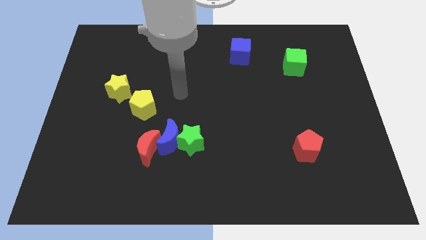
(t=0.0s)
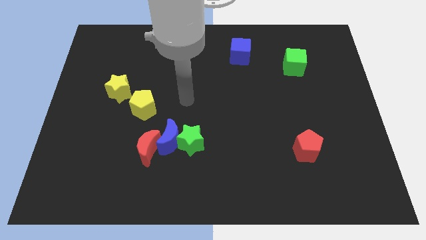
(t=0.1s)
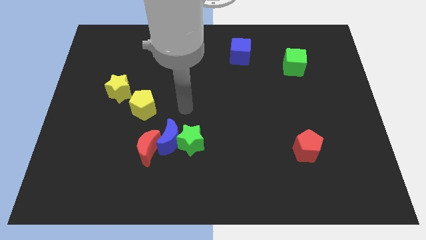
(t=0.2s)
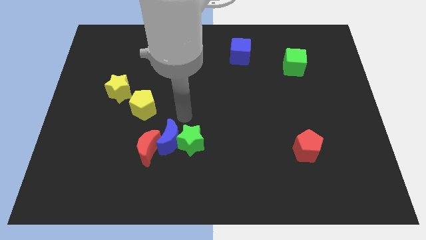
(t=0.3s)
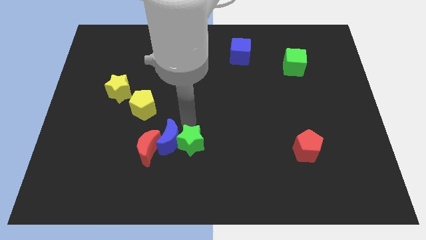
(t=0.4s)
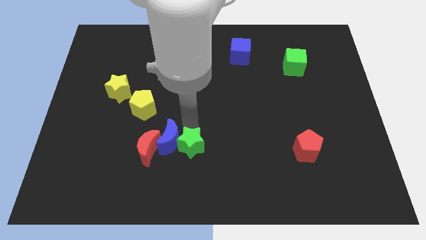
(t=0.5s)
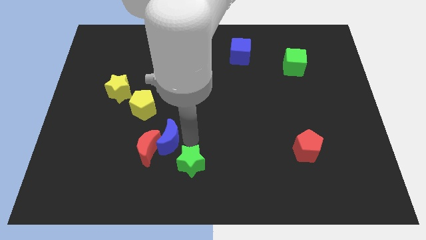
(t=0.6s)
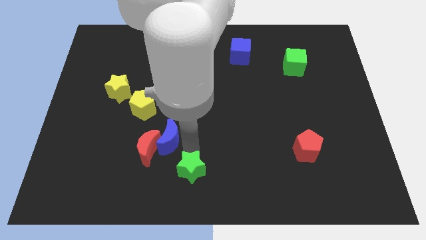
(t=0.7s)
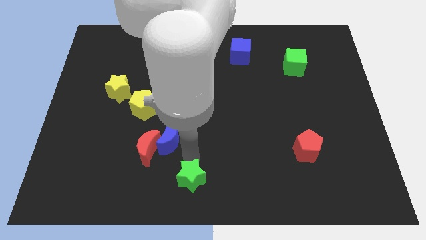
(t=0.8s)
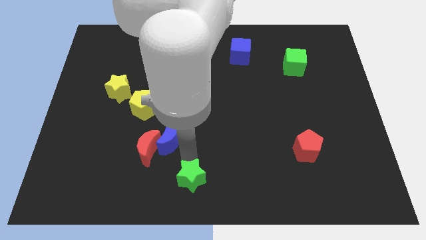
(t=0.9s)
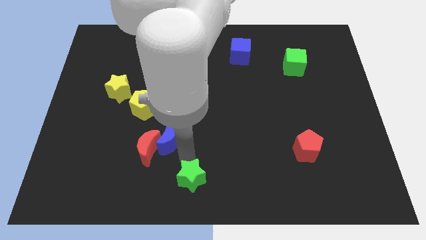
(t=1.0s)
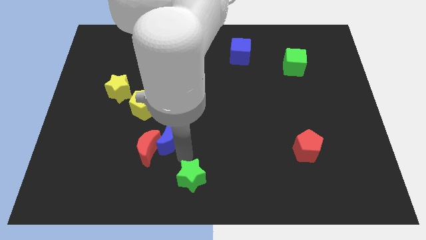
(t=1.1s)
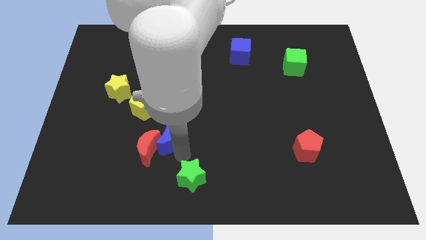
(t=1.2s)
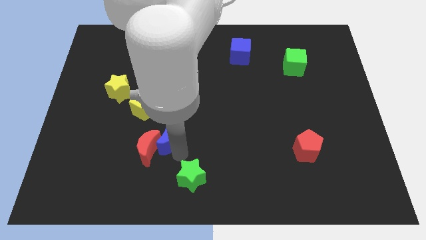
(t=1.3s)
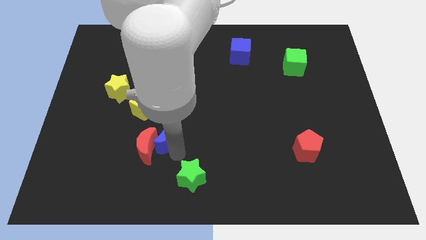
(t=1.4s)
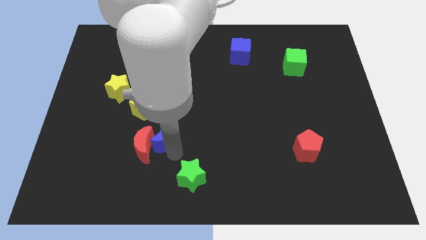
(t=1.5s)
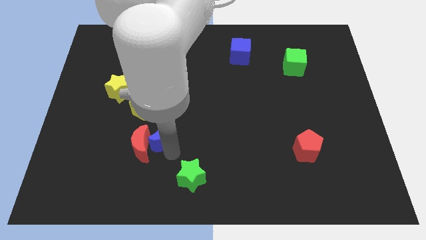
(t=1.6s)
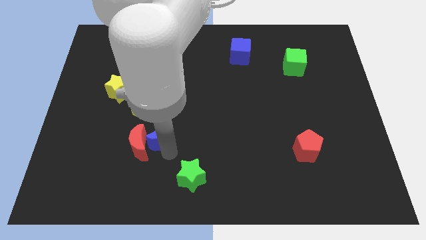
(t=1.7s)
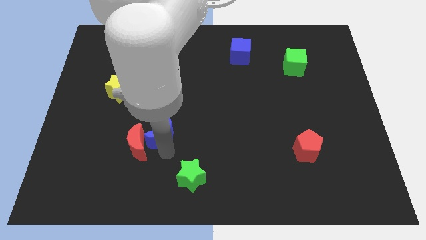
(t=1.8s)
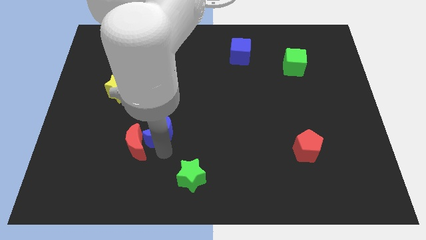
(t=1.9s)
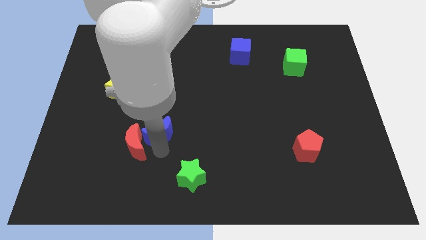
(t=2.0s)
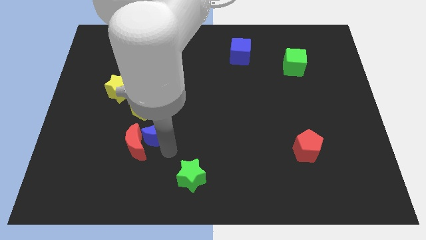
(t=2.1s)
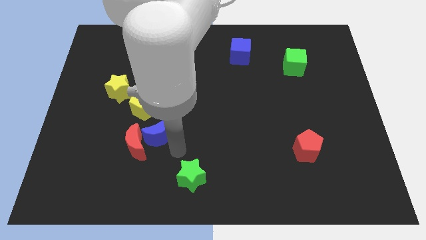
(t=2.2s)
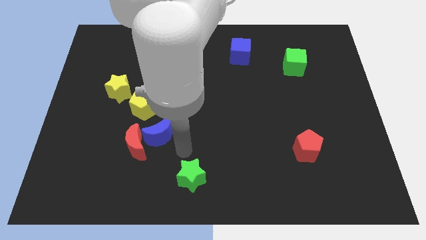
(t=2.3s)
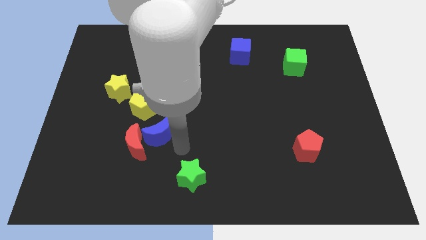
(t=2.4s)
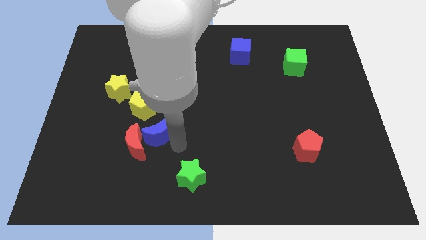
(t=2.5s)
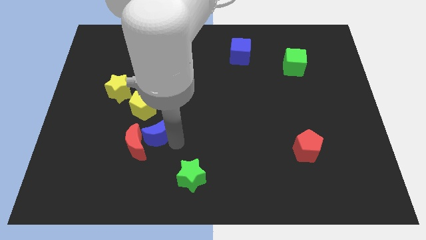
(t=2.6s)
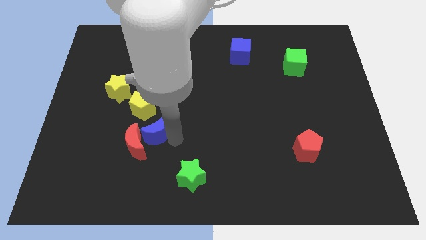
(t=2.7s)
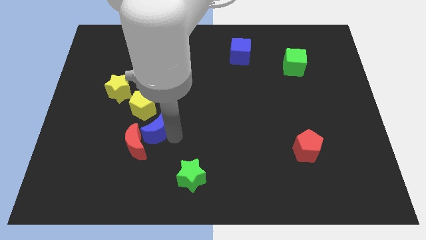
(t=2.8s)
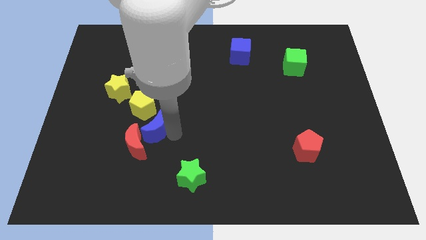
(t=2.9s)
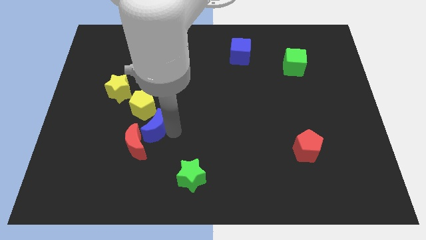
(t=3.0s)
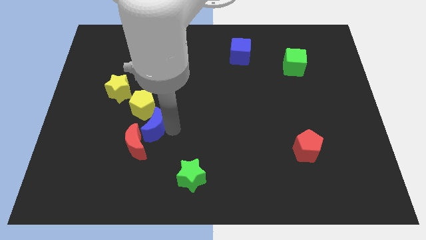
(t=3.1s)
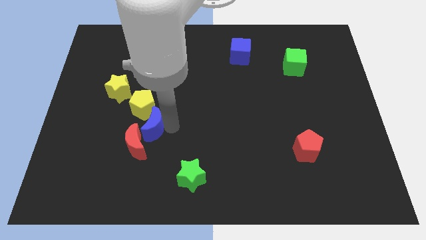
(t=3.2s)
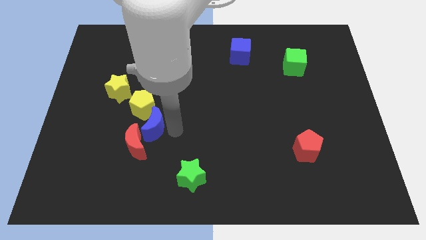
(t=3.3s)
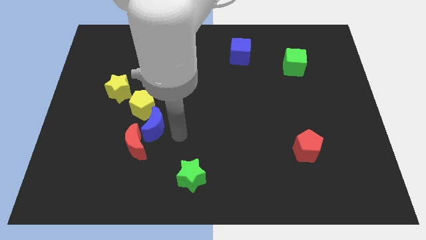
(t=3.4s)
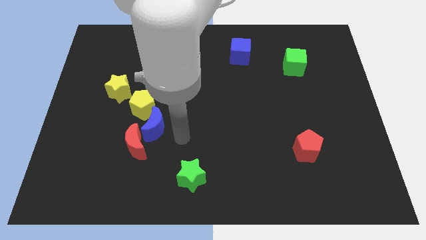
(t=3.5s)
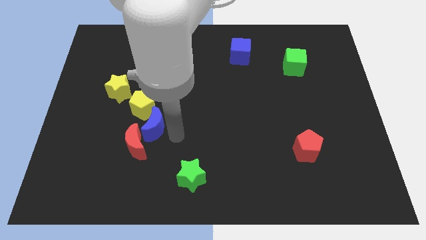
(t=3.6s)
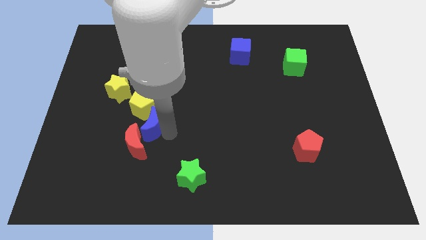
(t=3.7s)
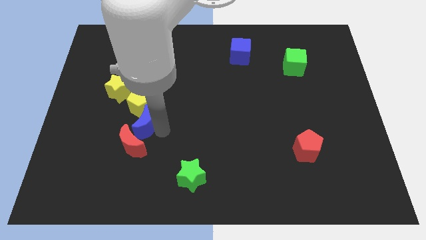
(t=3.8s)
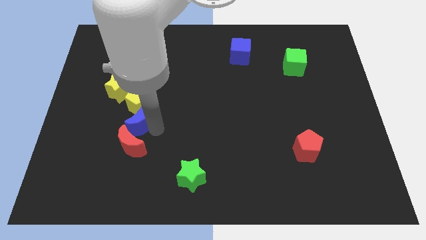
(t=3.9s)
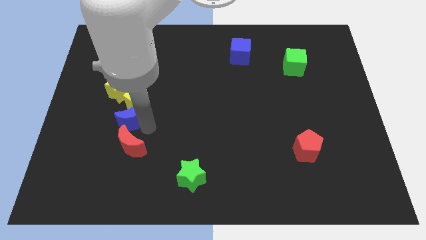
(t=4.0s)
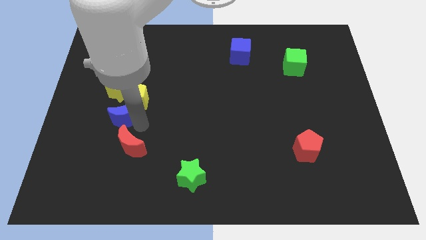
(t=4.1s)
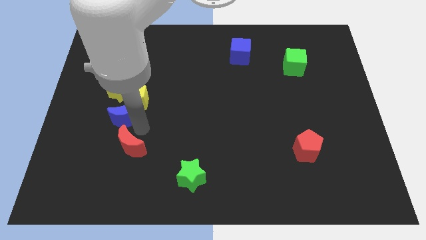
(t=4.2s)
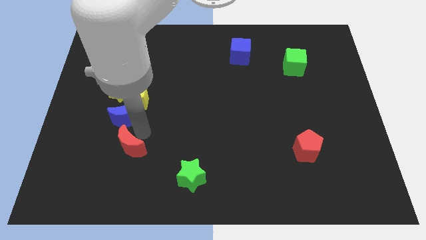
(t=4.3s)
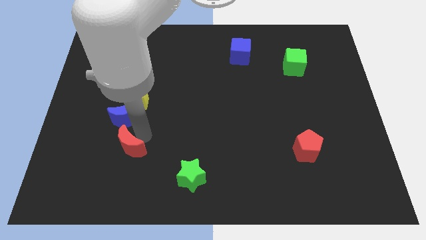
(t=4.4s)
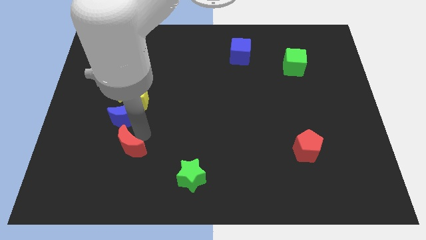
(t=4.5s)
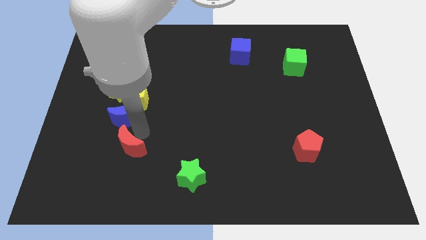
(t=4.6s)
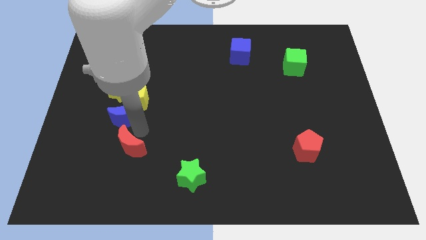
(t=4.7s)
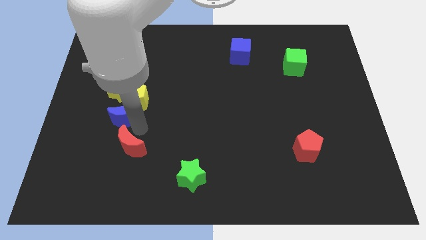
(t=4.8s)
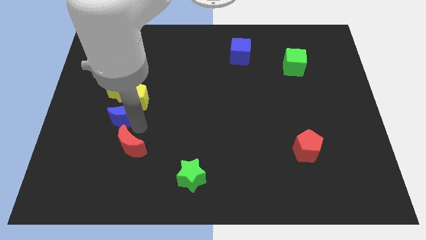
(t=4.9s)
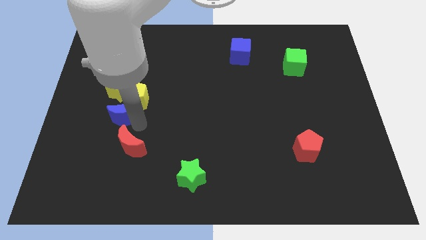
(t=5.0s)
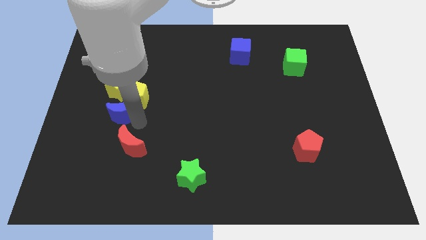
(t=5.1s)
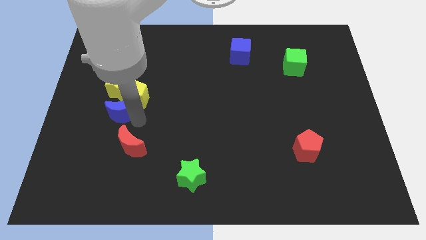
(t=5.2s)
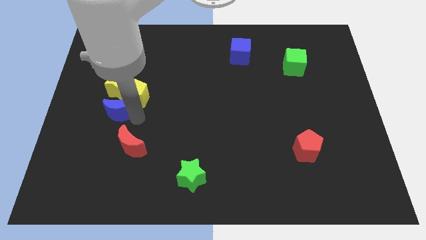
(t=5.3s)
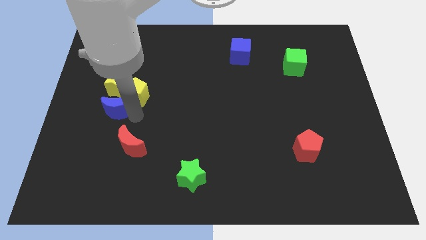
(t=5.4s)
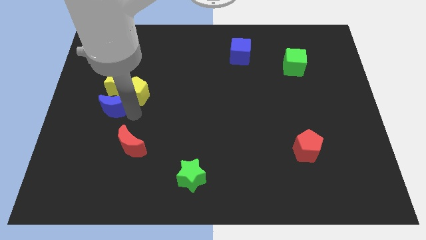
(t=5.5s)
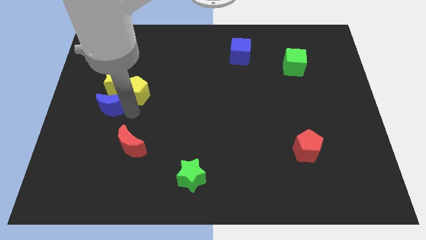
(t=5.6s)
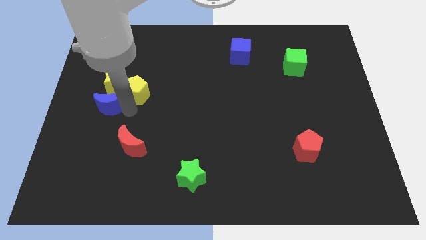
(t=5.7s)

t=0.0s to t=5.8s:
slide the blue moon next to the yellow star

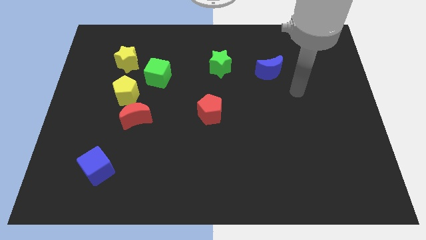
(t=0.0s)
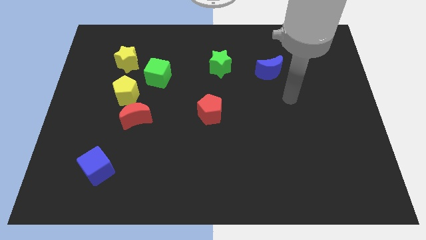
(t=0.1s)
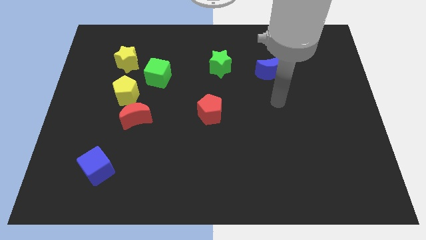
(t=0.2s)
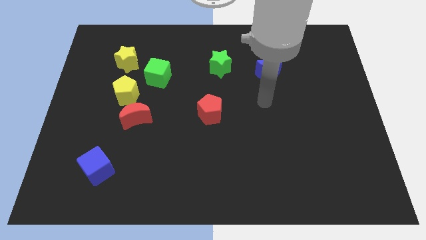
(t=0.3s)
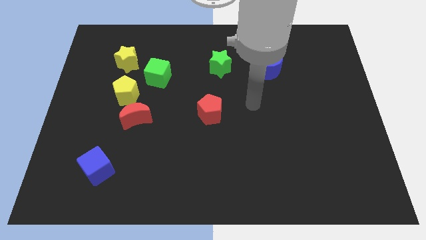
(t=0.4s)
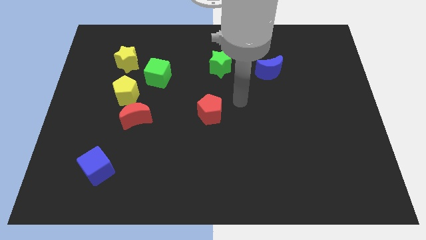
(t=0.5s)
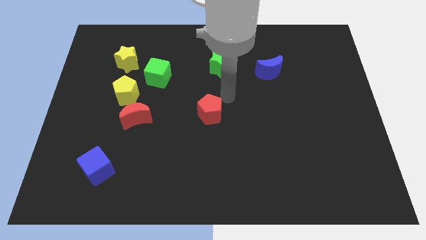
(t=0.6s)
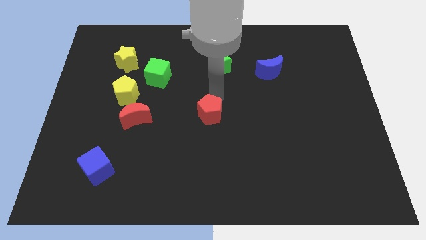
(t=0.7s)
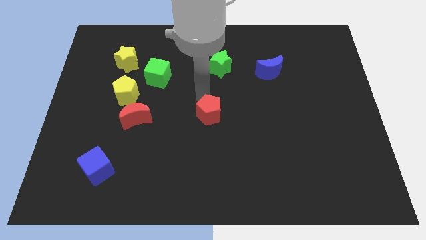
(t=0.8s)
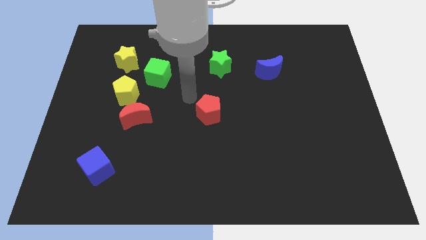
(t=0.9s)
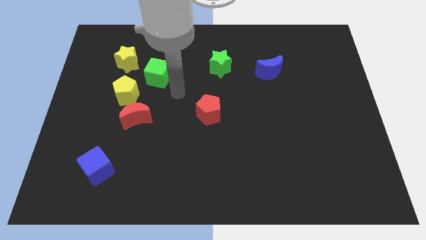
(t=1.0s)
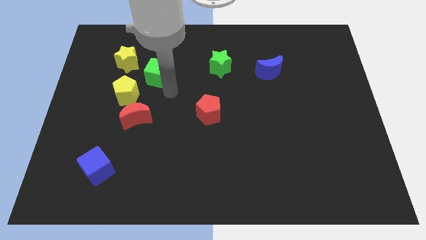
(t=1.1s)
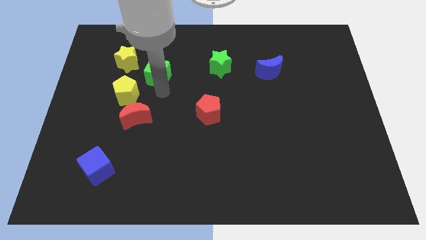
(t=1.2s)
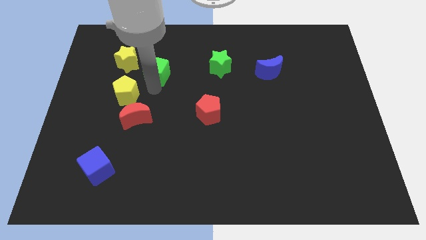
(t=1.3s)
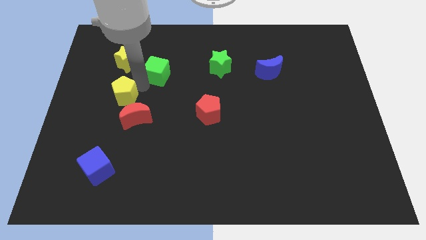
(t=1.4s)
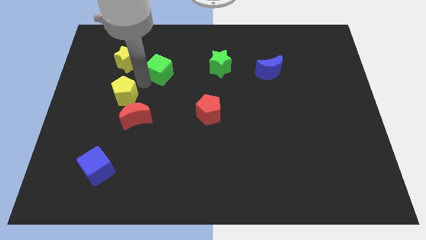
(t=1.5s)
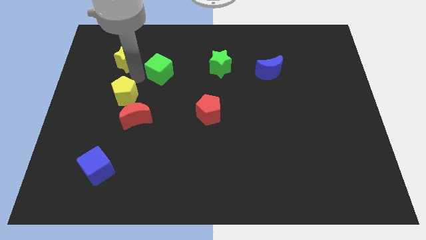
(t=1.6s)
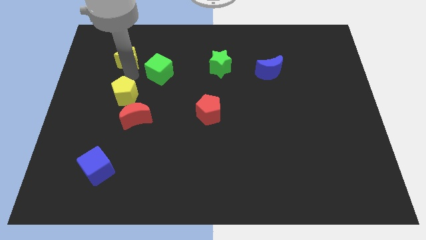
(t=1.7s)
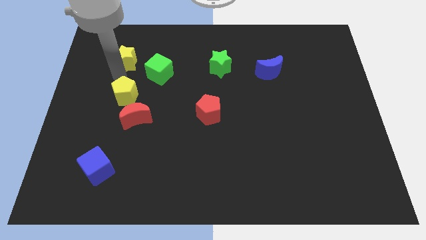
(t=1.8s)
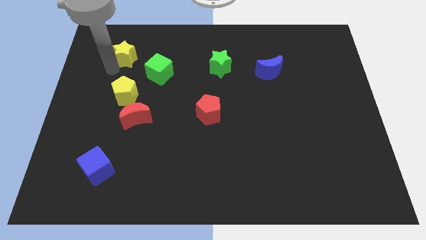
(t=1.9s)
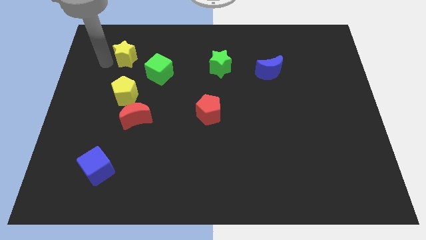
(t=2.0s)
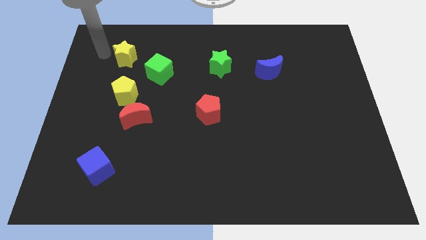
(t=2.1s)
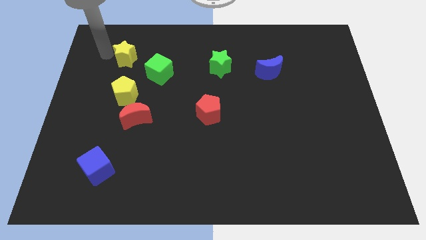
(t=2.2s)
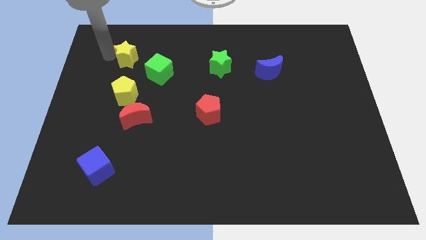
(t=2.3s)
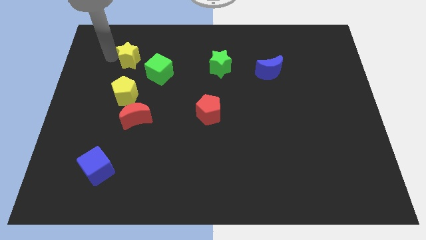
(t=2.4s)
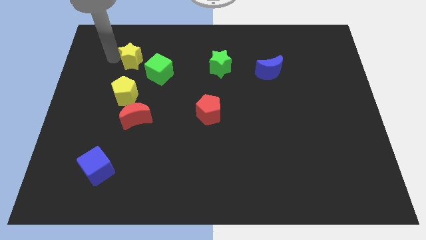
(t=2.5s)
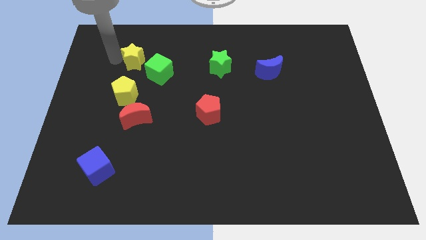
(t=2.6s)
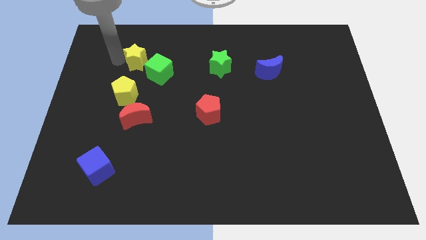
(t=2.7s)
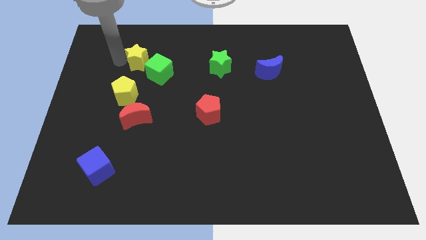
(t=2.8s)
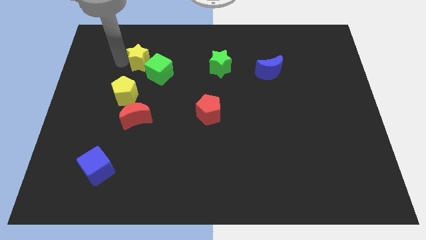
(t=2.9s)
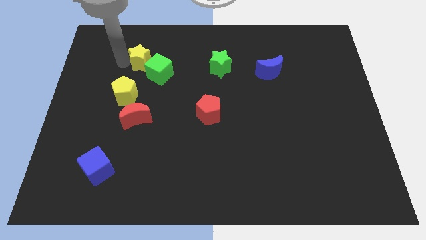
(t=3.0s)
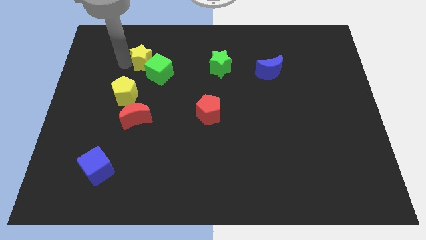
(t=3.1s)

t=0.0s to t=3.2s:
move the yellow star close to the green cube
